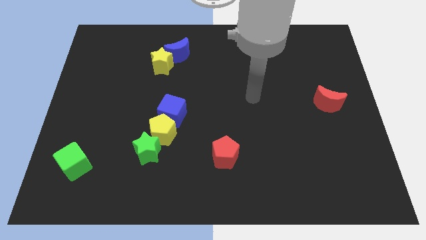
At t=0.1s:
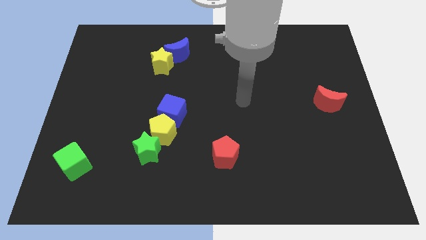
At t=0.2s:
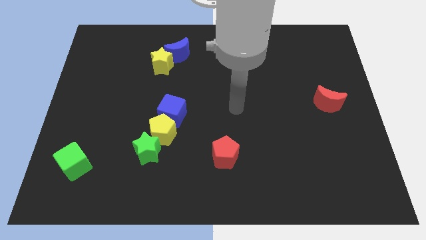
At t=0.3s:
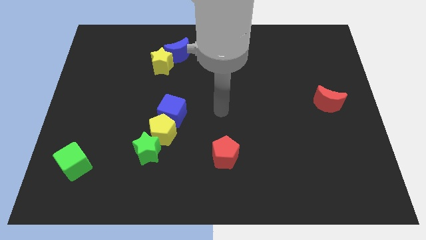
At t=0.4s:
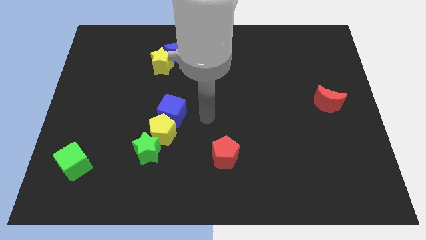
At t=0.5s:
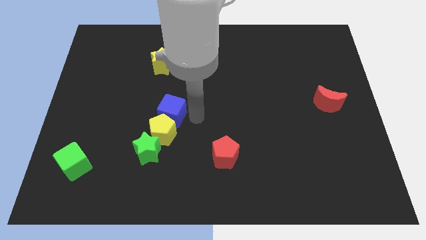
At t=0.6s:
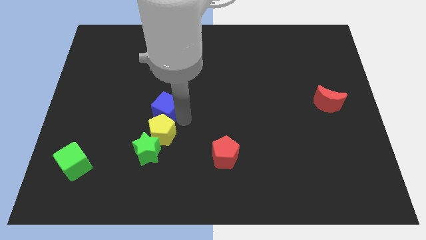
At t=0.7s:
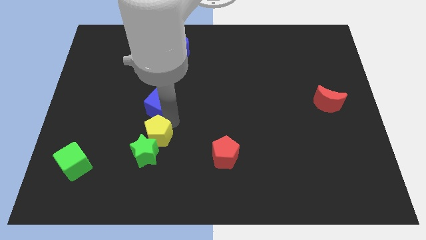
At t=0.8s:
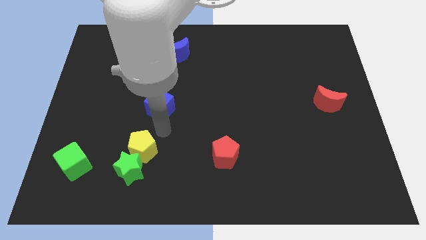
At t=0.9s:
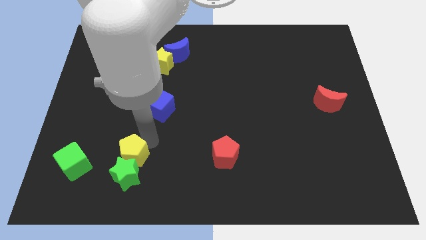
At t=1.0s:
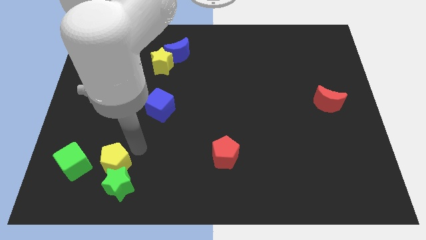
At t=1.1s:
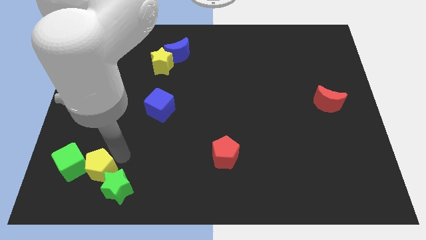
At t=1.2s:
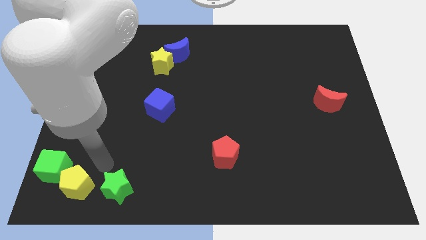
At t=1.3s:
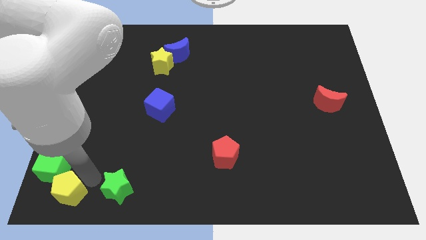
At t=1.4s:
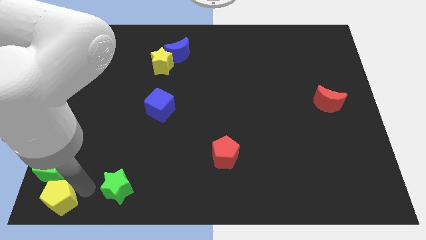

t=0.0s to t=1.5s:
pull the green star apart from the yellow pentagon

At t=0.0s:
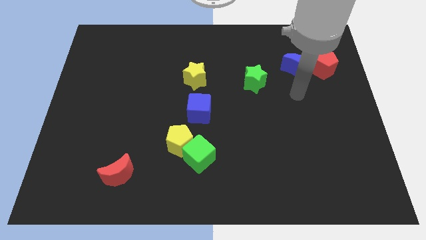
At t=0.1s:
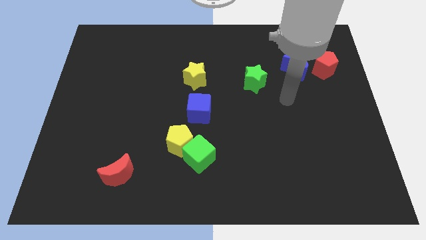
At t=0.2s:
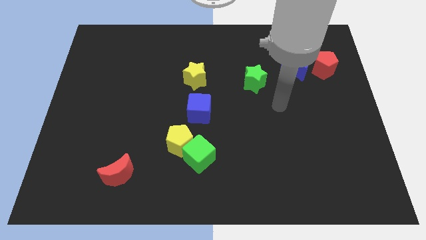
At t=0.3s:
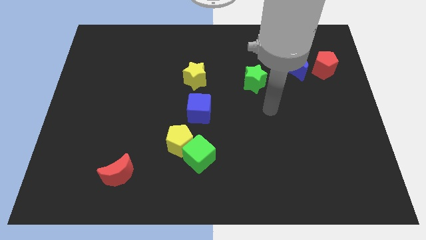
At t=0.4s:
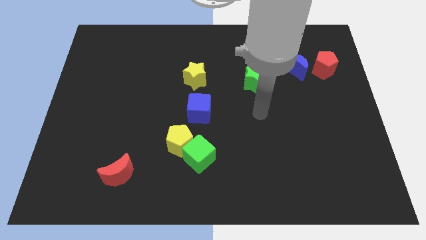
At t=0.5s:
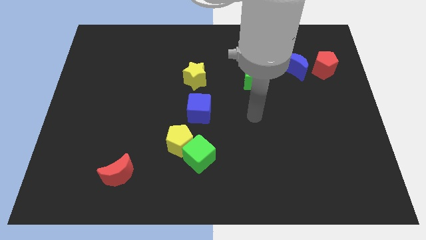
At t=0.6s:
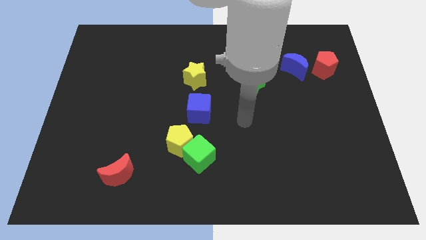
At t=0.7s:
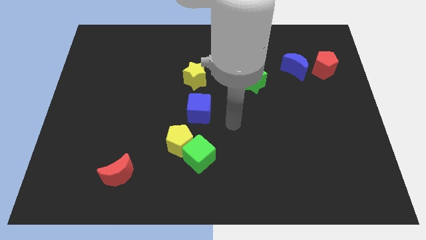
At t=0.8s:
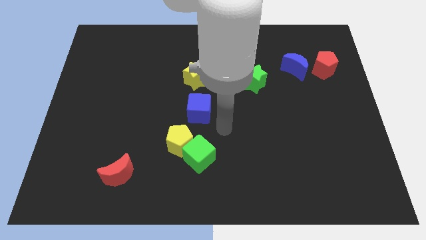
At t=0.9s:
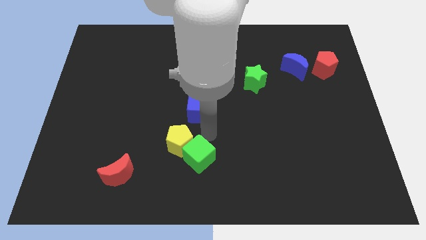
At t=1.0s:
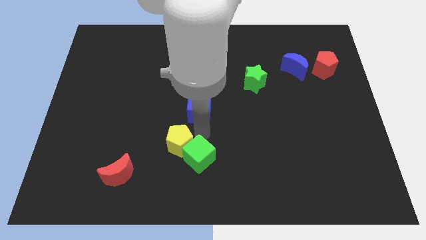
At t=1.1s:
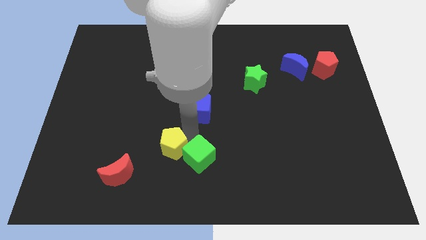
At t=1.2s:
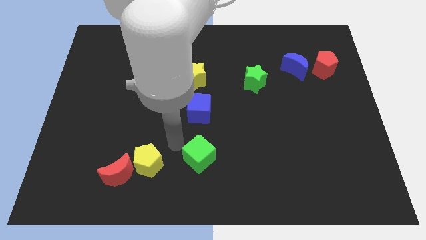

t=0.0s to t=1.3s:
pull the green cube apart from the yellow pentagon

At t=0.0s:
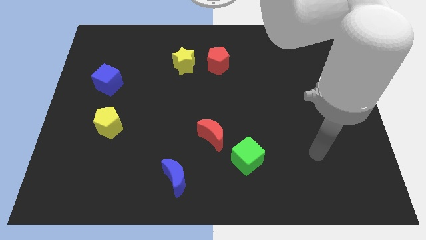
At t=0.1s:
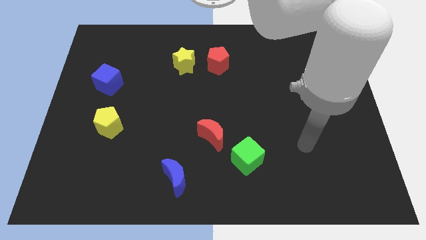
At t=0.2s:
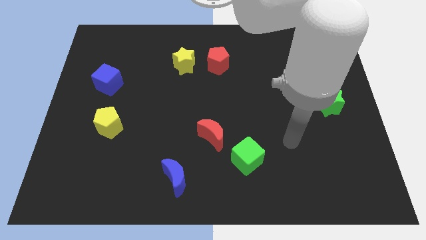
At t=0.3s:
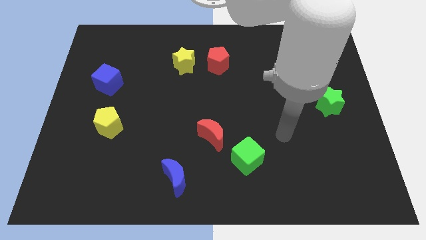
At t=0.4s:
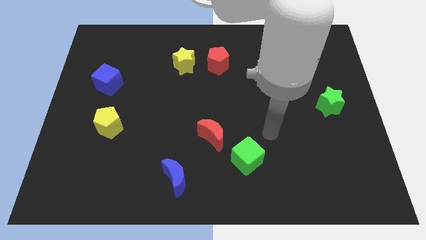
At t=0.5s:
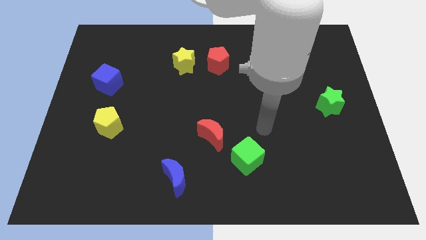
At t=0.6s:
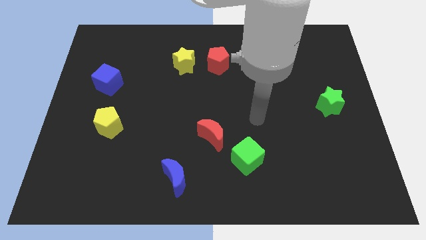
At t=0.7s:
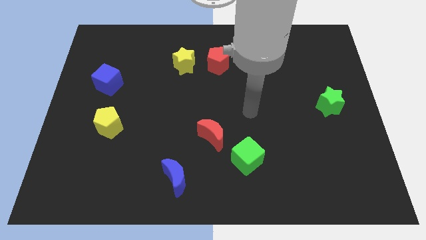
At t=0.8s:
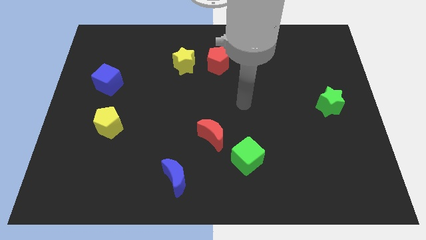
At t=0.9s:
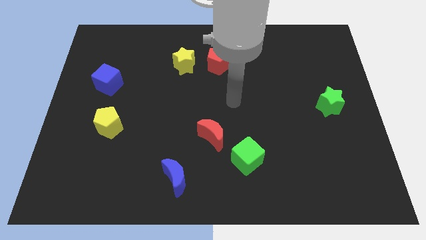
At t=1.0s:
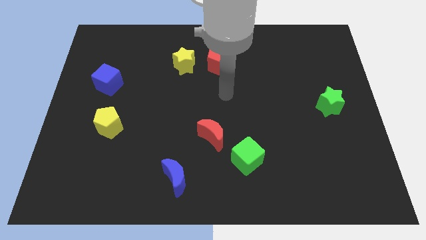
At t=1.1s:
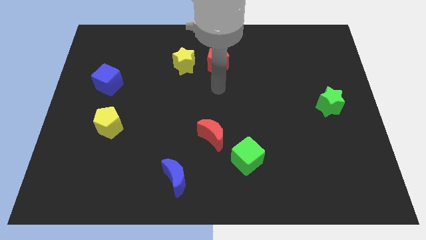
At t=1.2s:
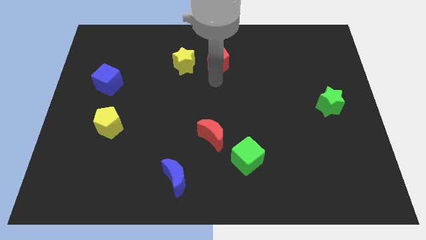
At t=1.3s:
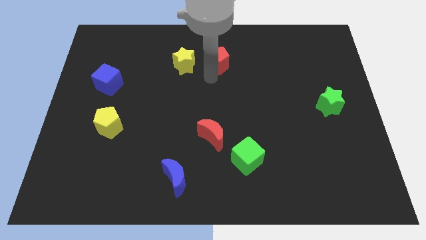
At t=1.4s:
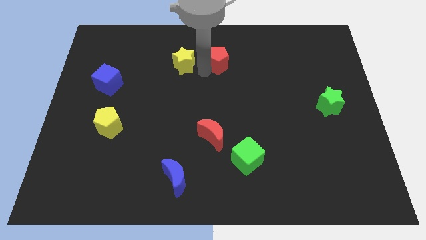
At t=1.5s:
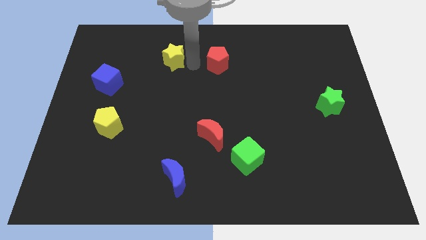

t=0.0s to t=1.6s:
separate the red pentagon from the yellow star

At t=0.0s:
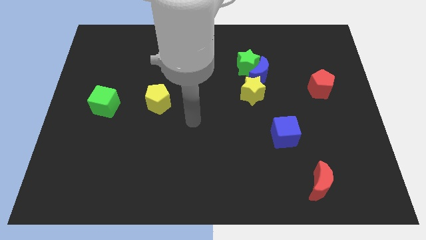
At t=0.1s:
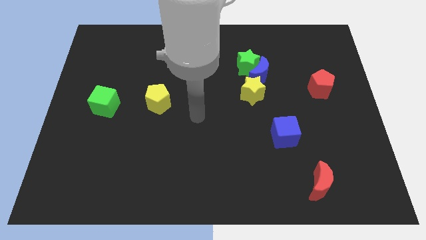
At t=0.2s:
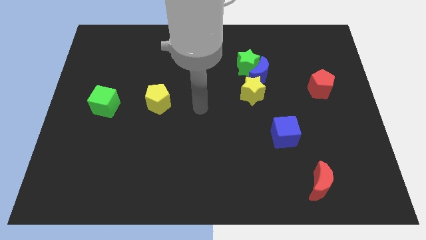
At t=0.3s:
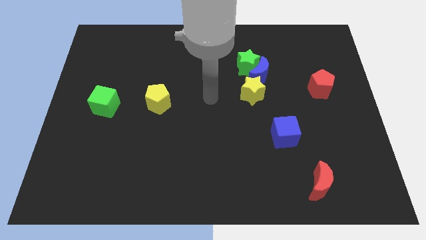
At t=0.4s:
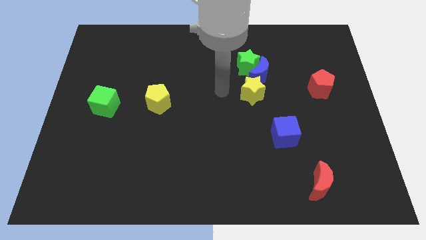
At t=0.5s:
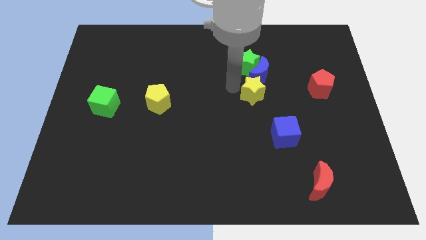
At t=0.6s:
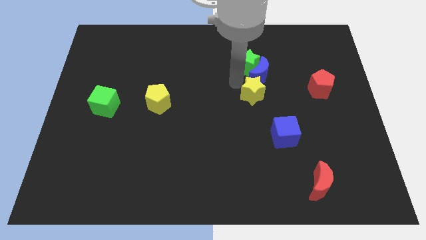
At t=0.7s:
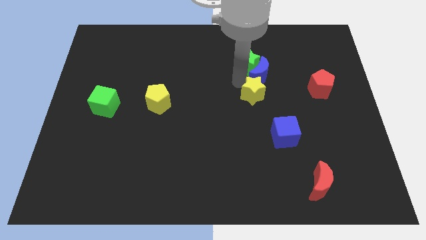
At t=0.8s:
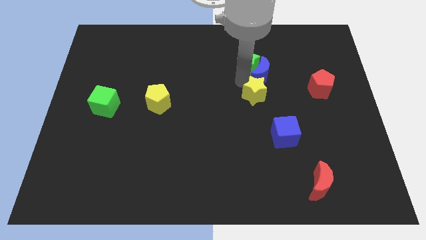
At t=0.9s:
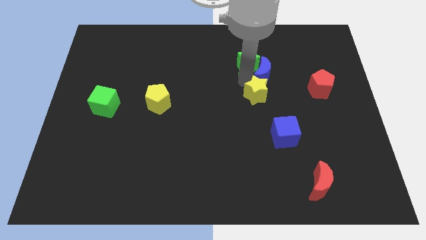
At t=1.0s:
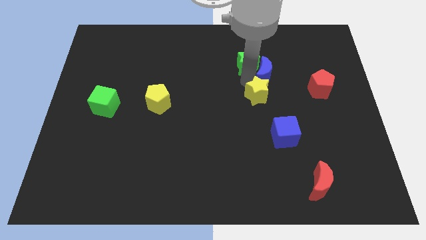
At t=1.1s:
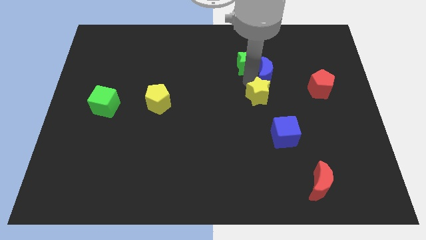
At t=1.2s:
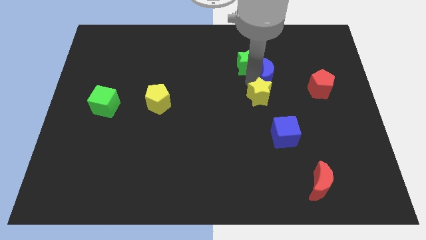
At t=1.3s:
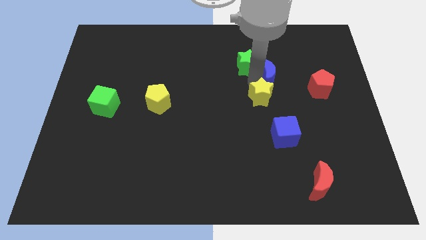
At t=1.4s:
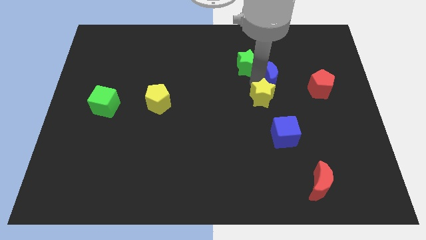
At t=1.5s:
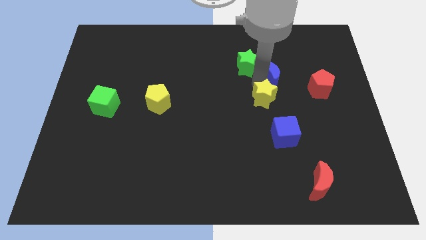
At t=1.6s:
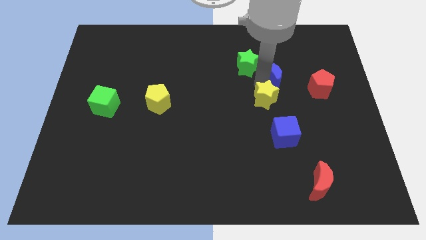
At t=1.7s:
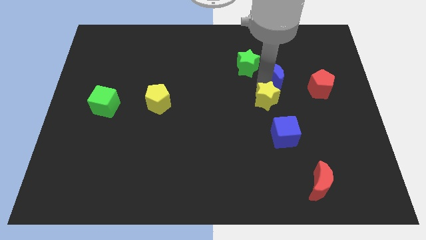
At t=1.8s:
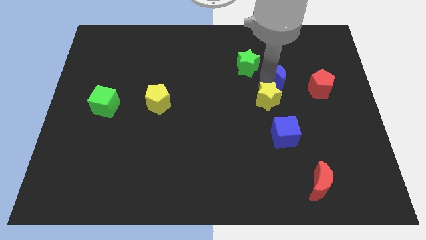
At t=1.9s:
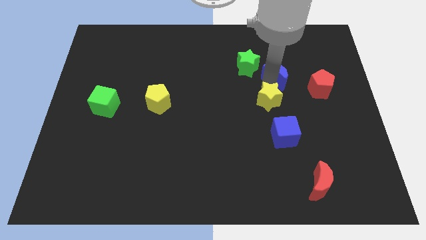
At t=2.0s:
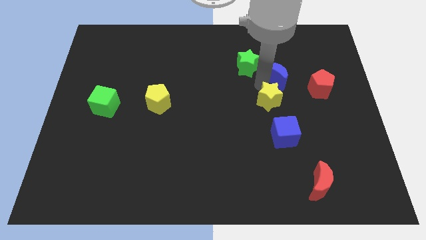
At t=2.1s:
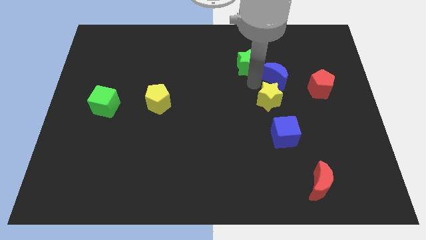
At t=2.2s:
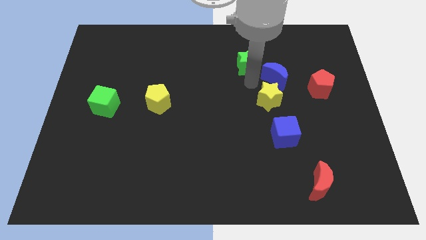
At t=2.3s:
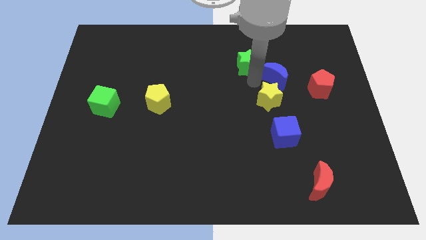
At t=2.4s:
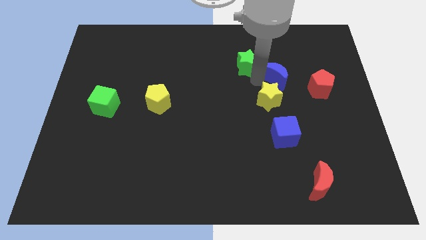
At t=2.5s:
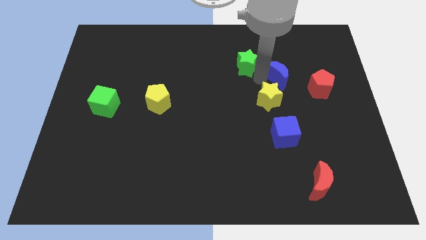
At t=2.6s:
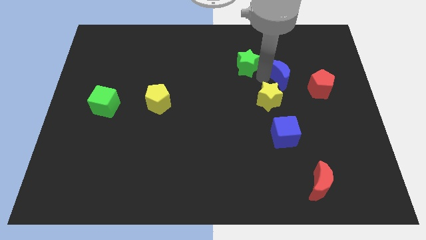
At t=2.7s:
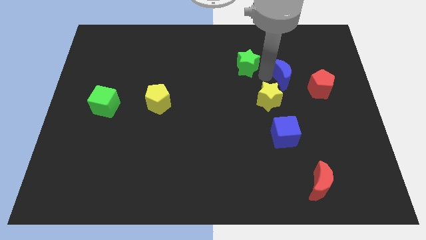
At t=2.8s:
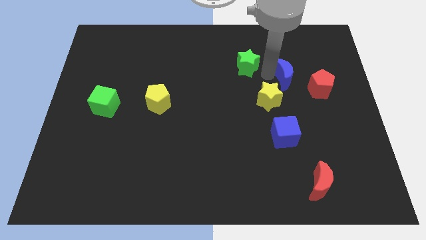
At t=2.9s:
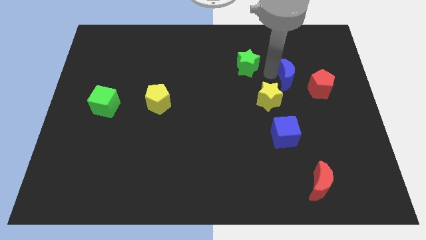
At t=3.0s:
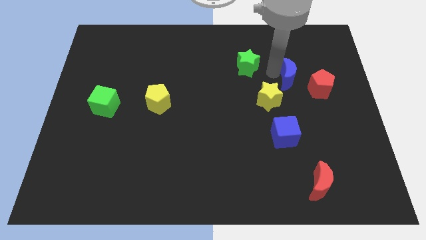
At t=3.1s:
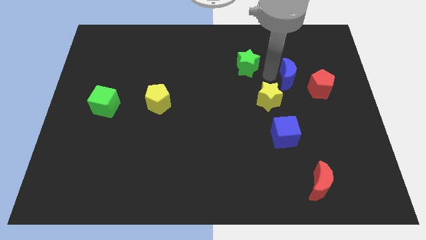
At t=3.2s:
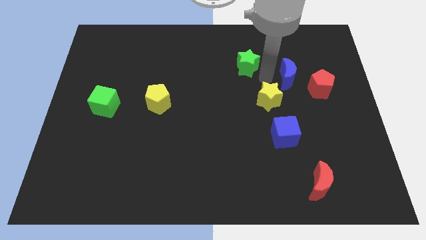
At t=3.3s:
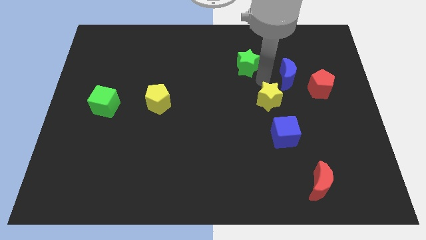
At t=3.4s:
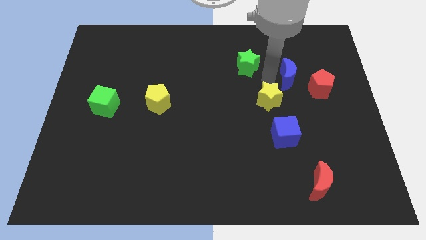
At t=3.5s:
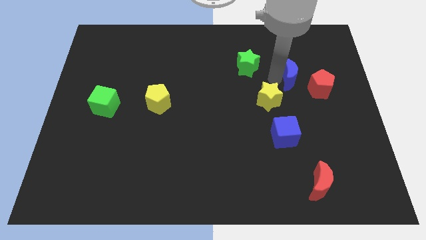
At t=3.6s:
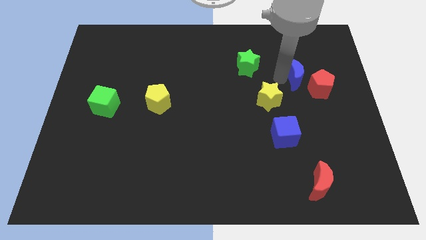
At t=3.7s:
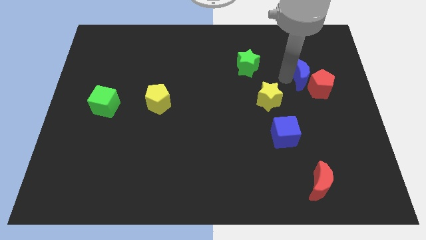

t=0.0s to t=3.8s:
pull the blue moon apart from the green star and yellow star

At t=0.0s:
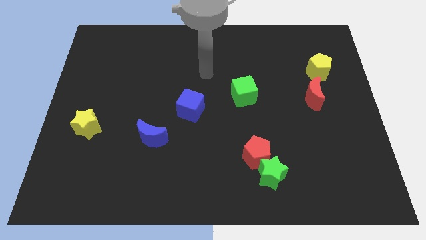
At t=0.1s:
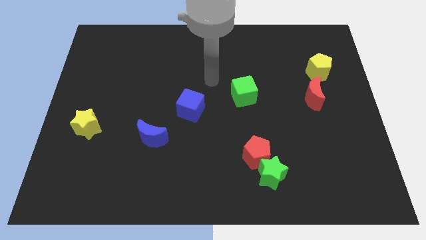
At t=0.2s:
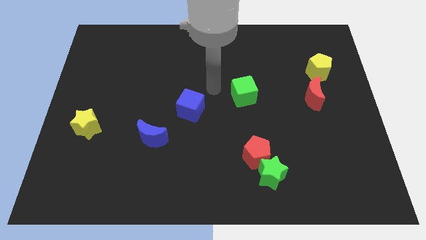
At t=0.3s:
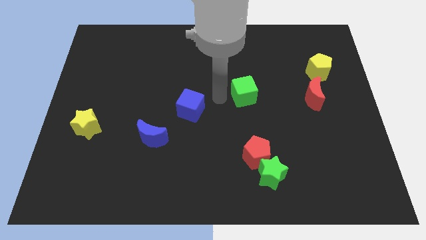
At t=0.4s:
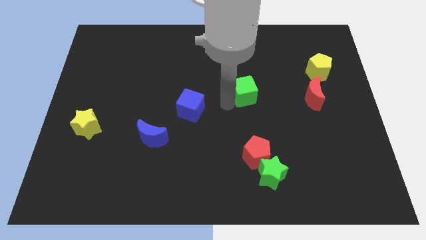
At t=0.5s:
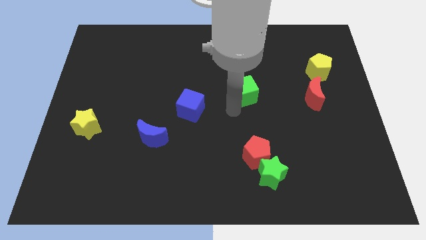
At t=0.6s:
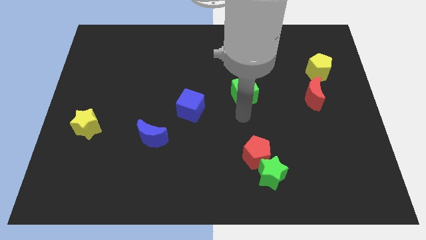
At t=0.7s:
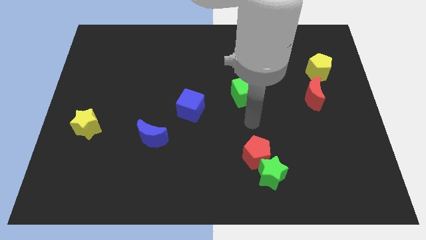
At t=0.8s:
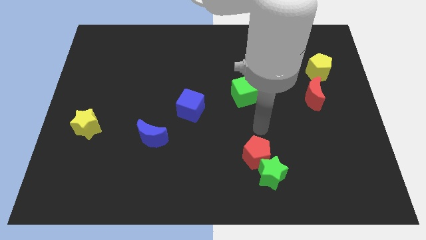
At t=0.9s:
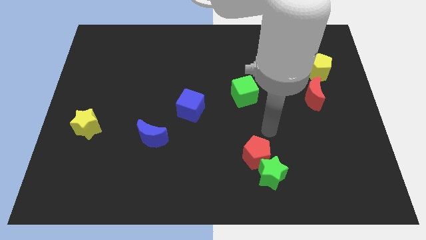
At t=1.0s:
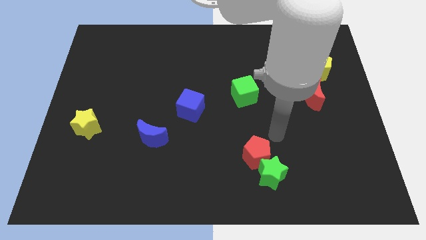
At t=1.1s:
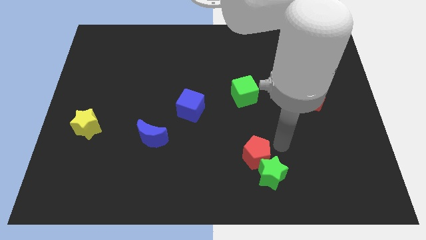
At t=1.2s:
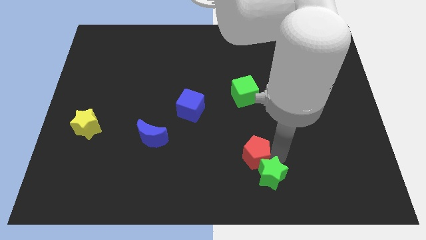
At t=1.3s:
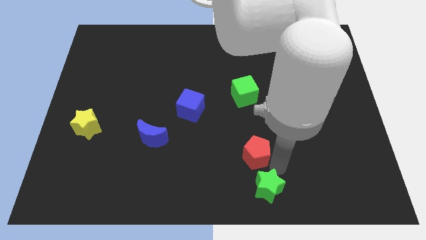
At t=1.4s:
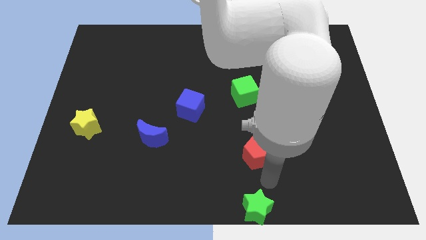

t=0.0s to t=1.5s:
move the red pentagon away from the green star
